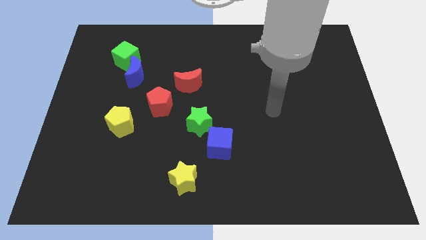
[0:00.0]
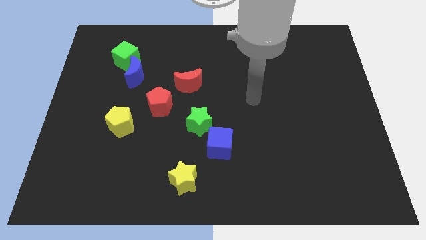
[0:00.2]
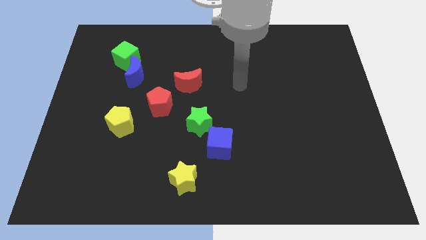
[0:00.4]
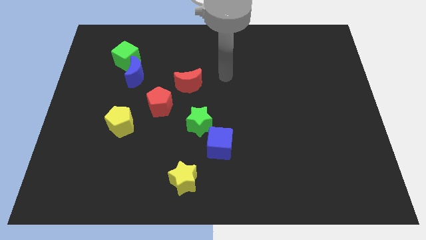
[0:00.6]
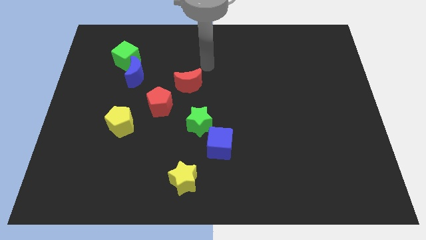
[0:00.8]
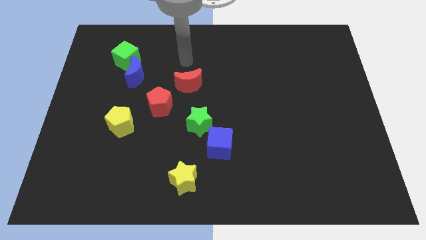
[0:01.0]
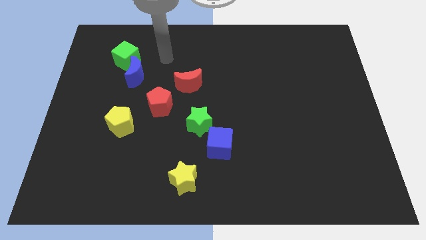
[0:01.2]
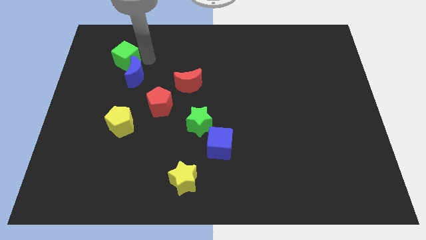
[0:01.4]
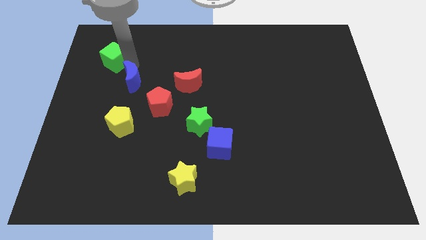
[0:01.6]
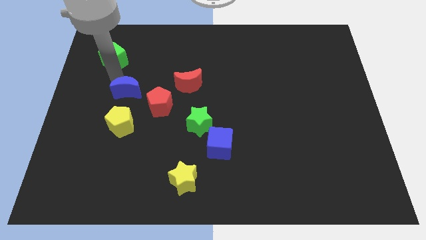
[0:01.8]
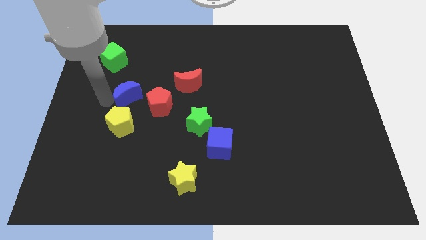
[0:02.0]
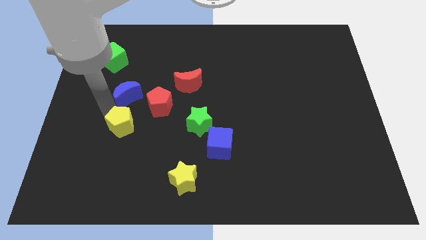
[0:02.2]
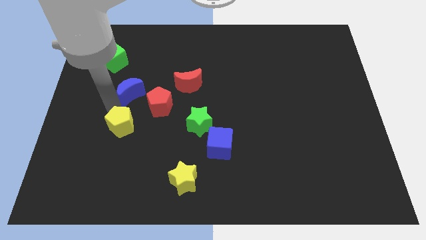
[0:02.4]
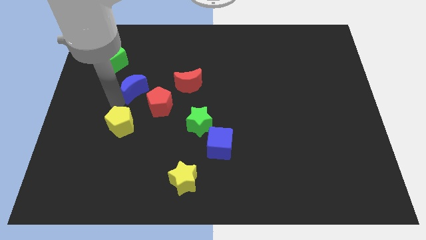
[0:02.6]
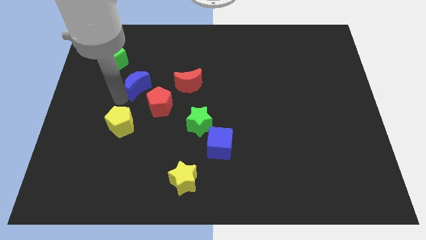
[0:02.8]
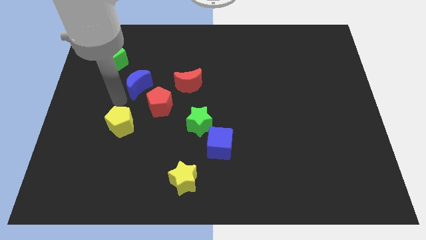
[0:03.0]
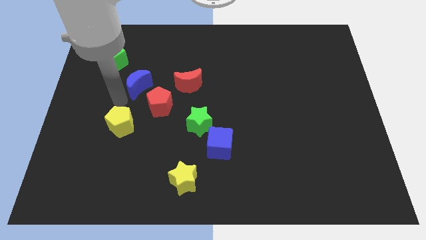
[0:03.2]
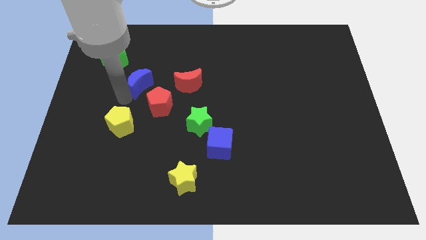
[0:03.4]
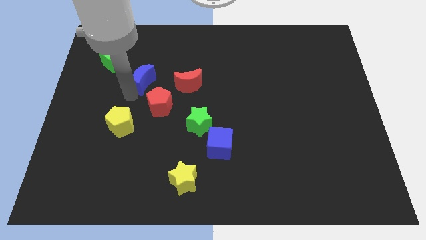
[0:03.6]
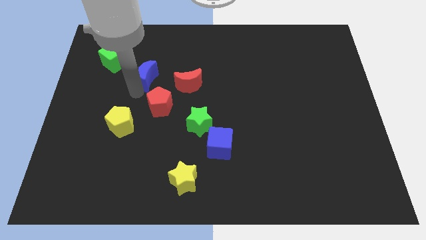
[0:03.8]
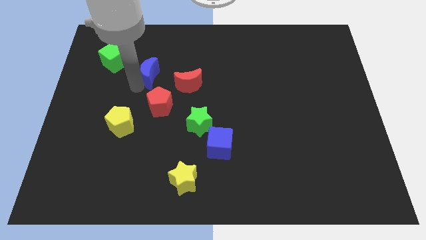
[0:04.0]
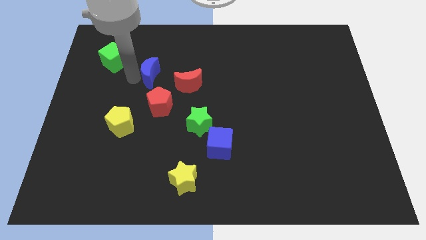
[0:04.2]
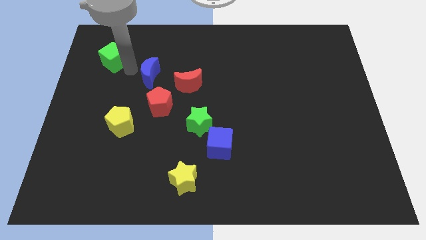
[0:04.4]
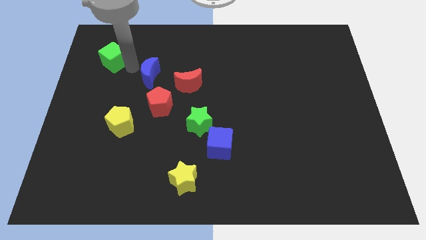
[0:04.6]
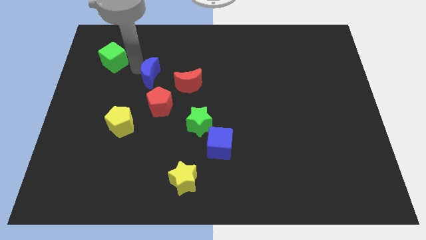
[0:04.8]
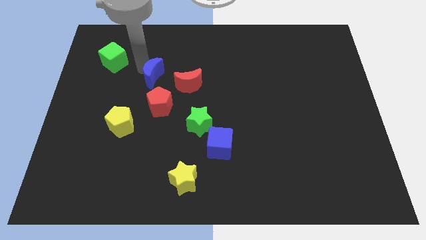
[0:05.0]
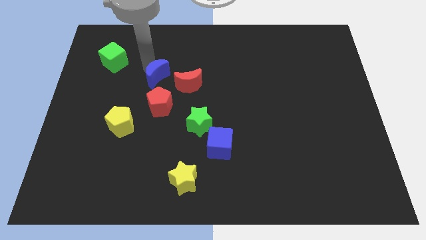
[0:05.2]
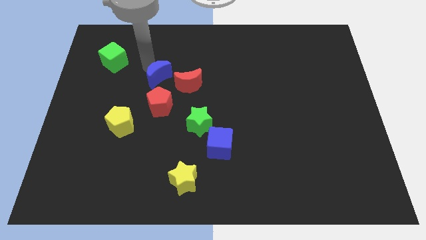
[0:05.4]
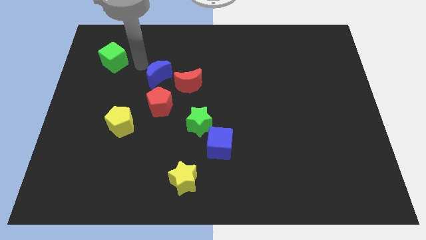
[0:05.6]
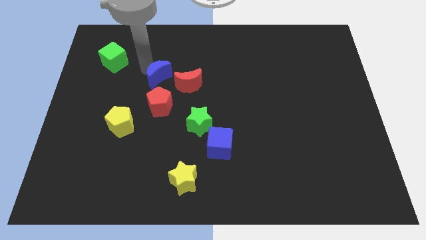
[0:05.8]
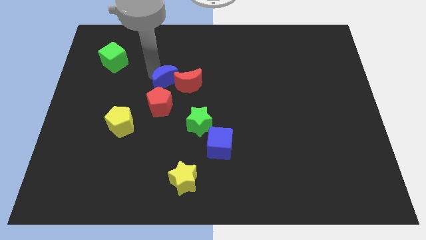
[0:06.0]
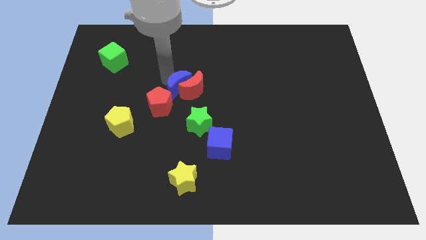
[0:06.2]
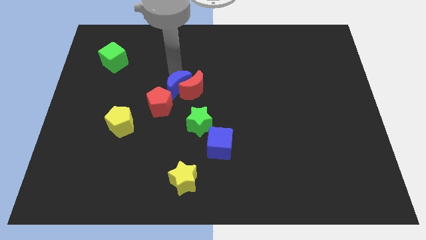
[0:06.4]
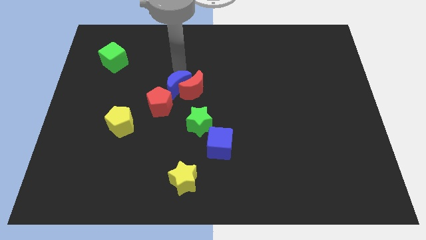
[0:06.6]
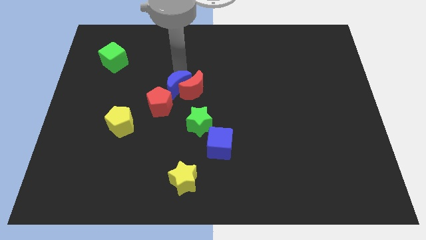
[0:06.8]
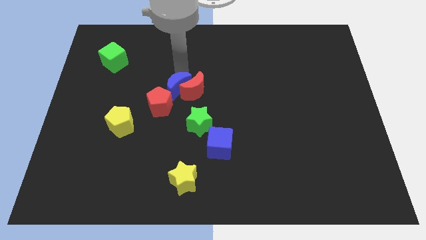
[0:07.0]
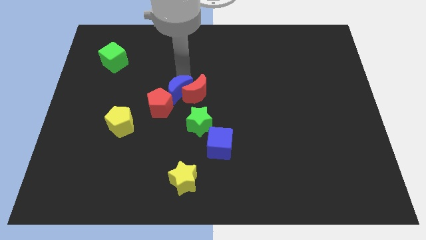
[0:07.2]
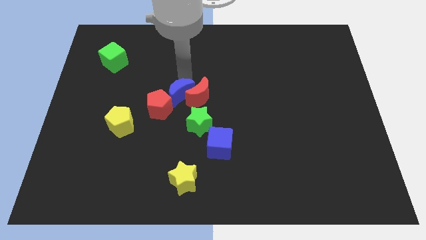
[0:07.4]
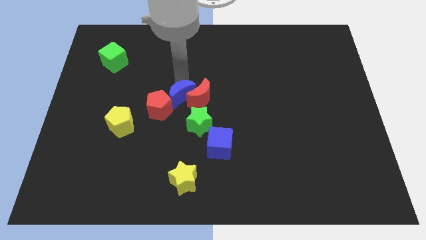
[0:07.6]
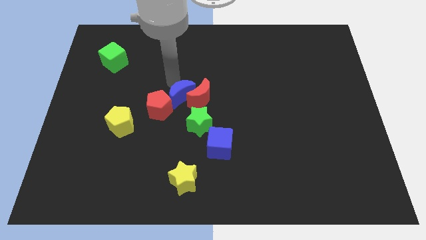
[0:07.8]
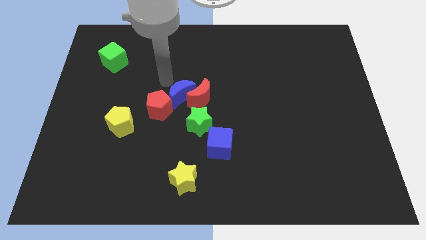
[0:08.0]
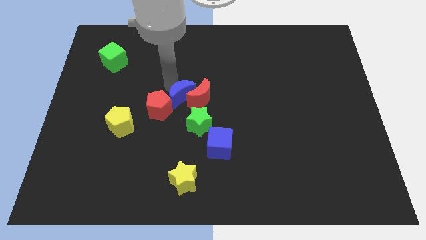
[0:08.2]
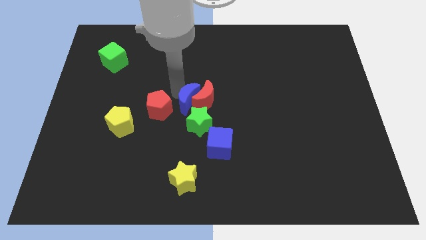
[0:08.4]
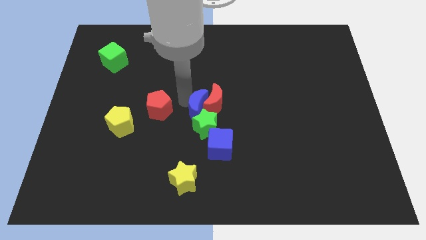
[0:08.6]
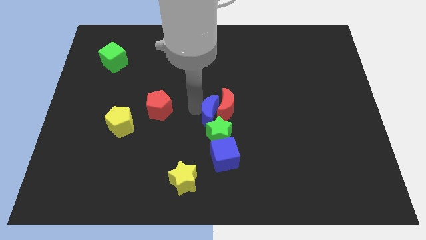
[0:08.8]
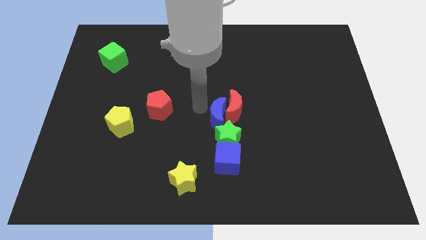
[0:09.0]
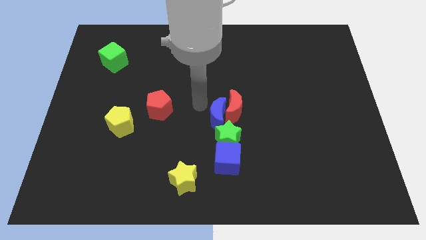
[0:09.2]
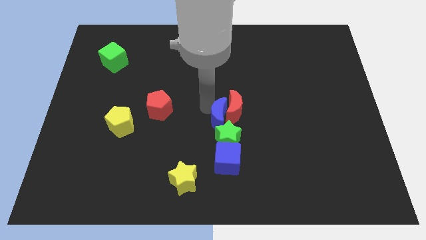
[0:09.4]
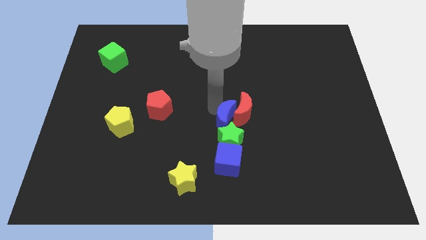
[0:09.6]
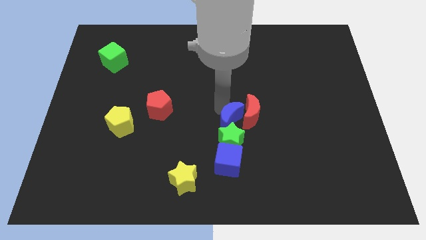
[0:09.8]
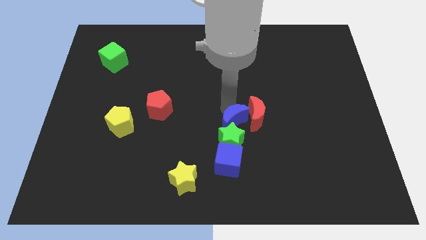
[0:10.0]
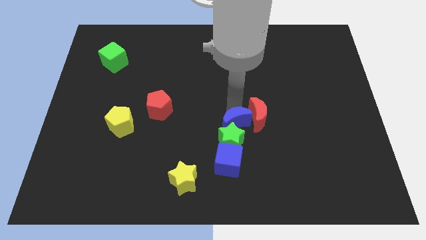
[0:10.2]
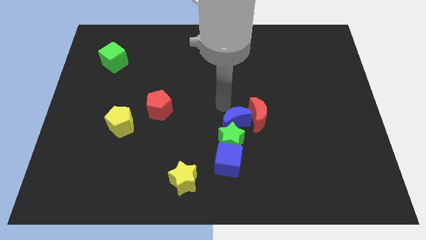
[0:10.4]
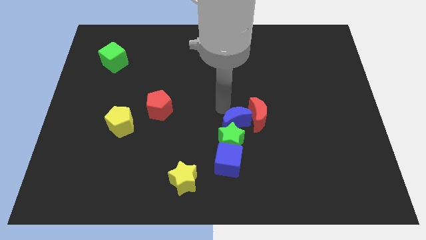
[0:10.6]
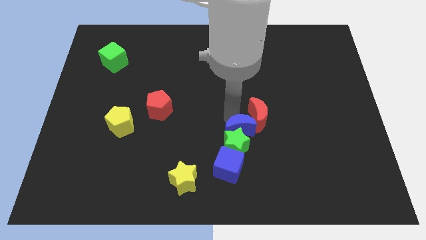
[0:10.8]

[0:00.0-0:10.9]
put the blue moon to the top right side of the blue cube

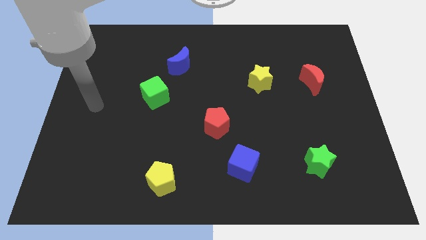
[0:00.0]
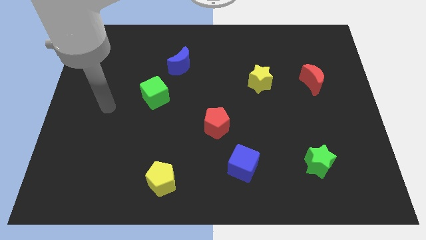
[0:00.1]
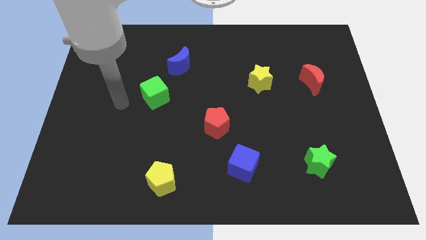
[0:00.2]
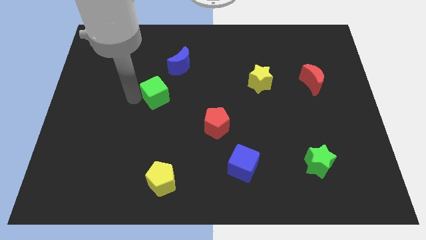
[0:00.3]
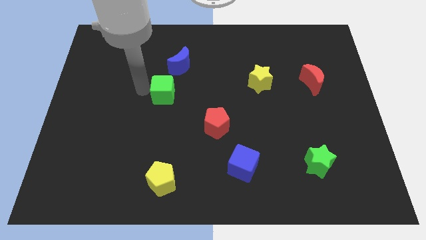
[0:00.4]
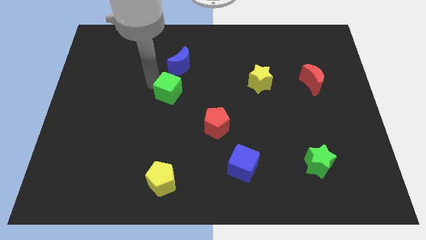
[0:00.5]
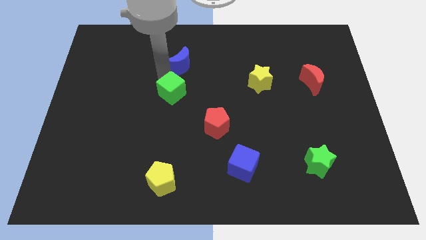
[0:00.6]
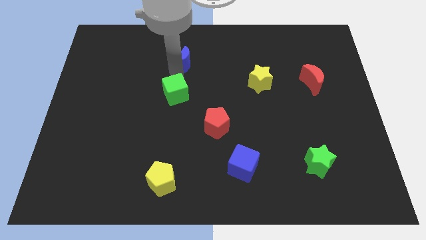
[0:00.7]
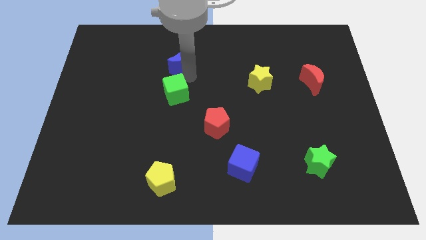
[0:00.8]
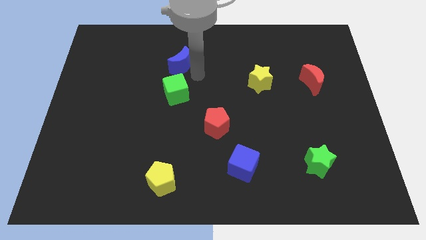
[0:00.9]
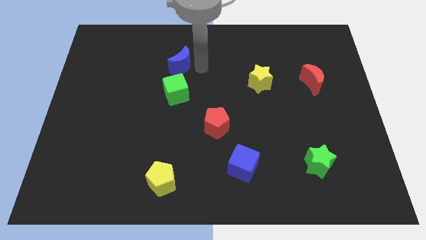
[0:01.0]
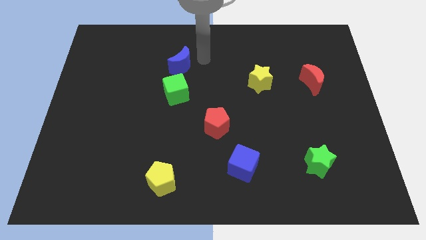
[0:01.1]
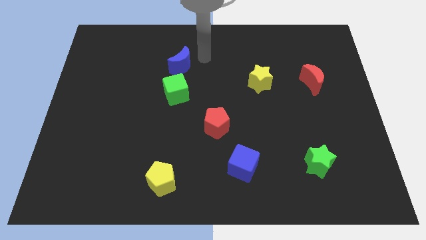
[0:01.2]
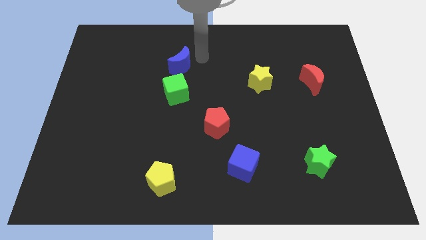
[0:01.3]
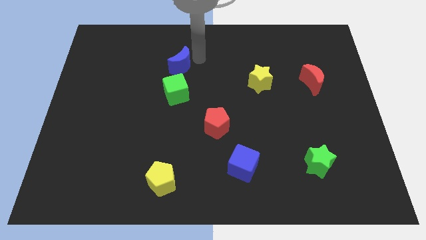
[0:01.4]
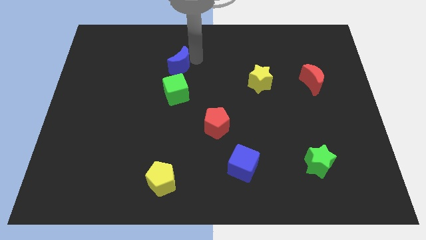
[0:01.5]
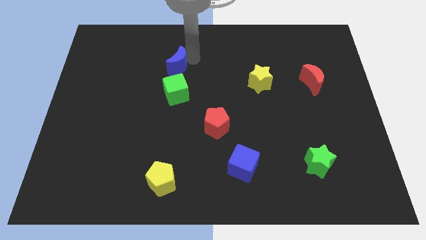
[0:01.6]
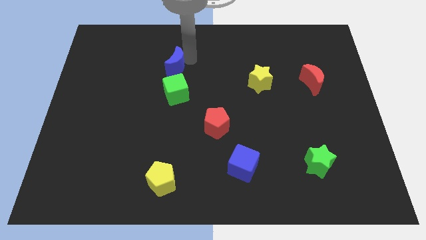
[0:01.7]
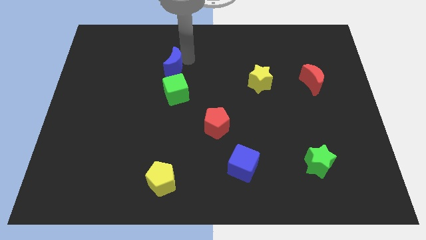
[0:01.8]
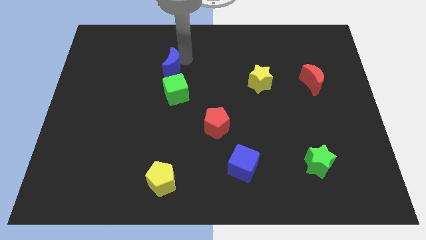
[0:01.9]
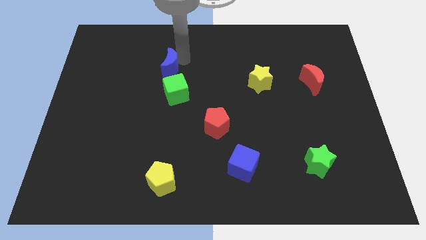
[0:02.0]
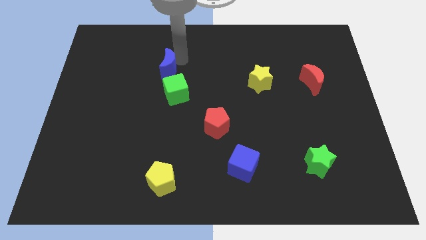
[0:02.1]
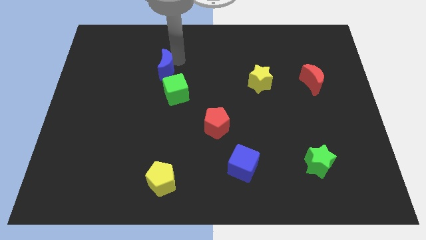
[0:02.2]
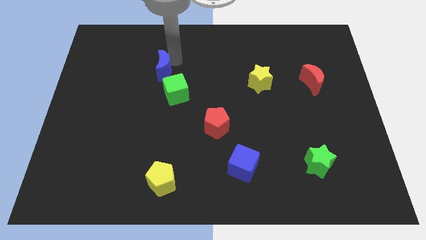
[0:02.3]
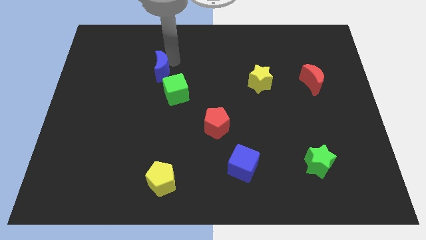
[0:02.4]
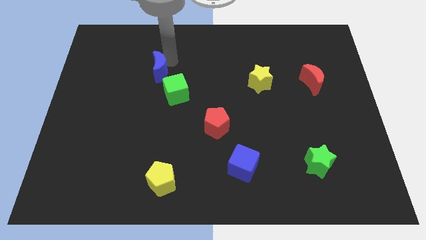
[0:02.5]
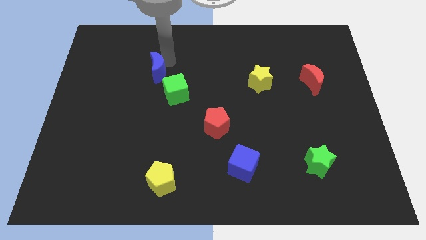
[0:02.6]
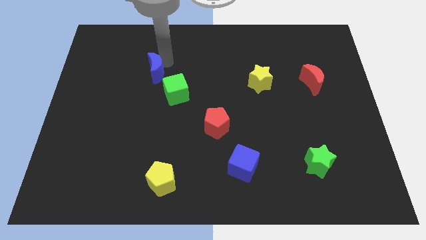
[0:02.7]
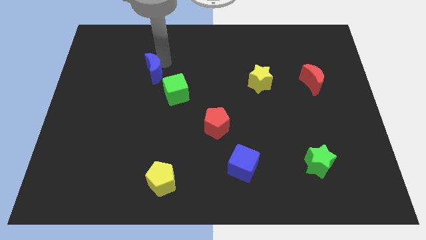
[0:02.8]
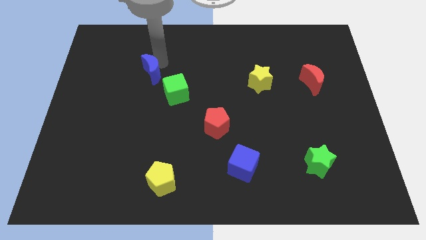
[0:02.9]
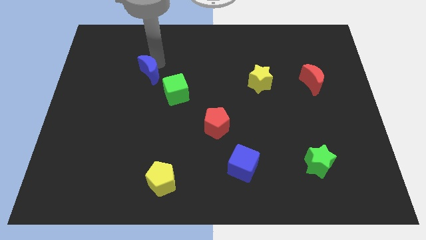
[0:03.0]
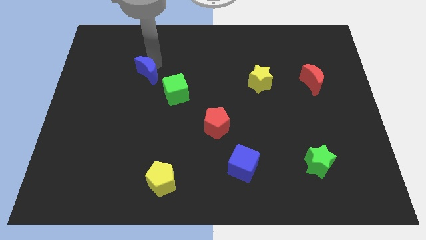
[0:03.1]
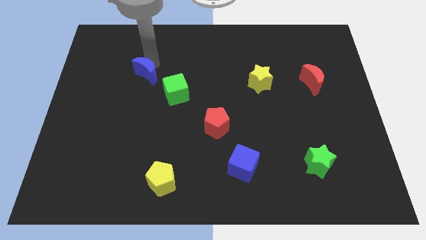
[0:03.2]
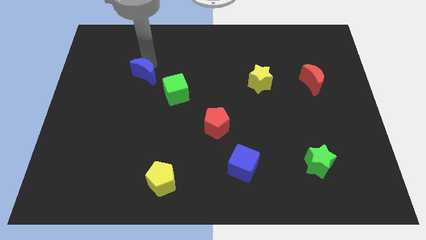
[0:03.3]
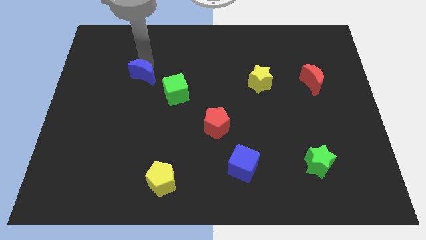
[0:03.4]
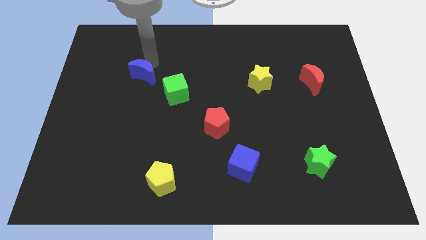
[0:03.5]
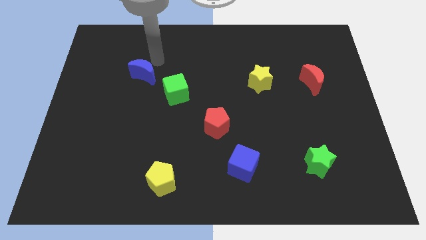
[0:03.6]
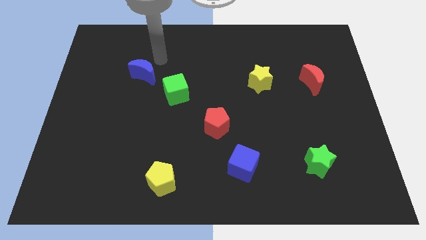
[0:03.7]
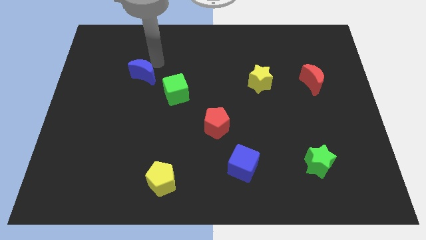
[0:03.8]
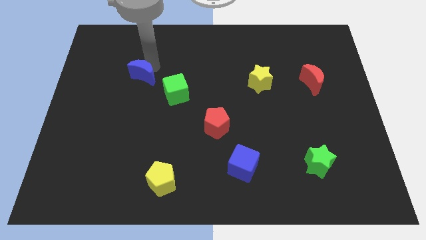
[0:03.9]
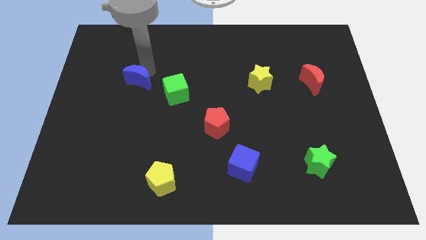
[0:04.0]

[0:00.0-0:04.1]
put the blue moon just left of the green cube
